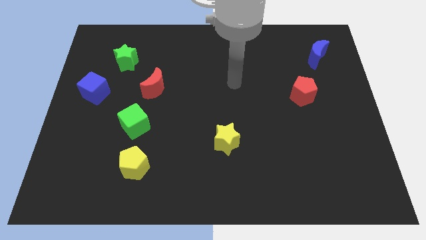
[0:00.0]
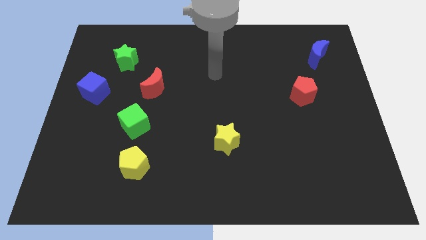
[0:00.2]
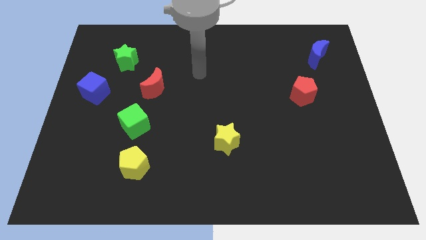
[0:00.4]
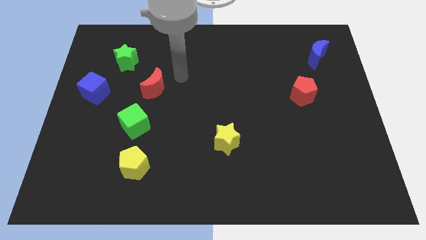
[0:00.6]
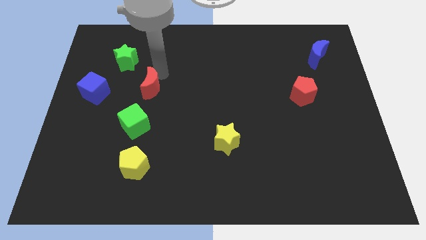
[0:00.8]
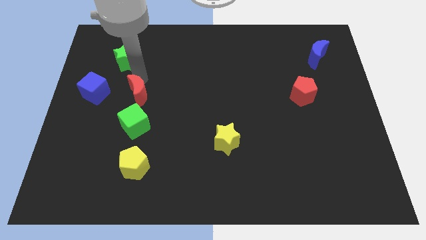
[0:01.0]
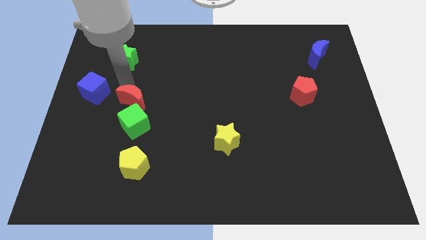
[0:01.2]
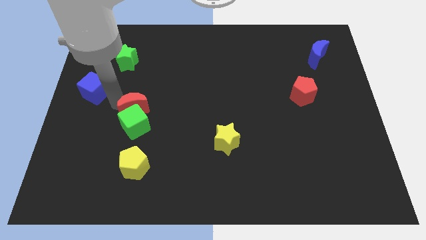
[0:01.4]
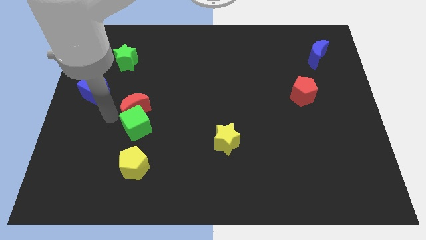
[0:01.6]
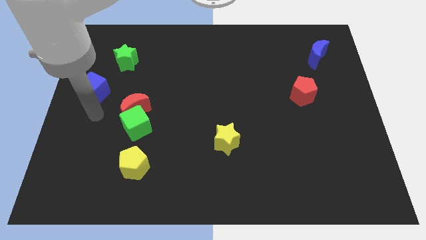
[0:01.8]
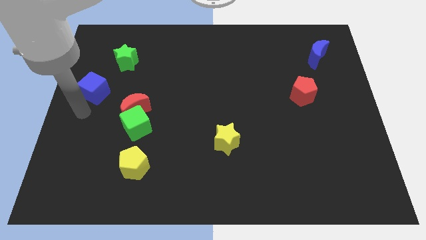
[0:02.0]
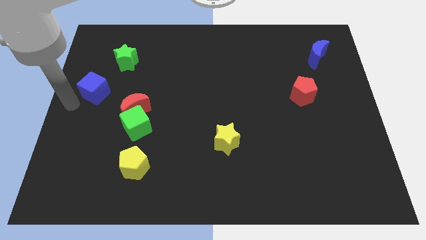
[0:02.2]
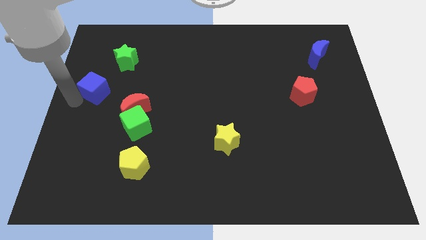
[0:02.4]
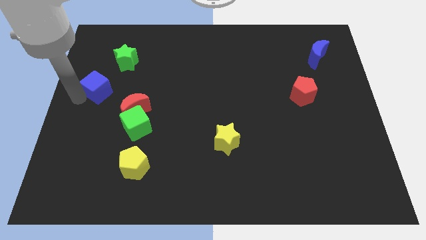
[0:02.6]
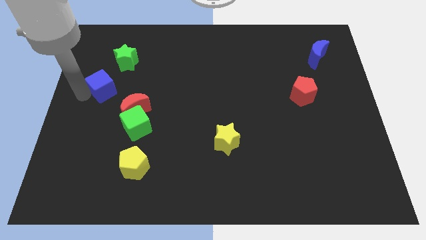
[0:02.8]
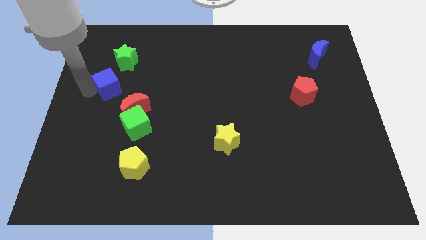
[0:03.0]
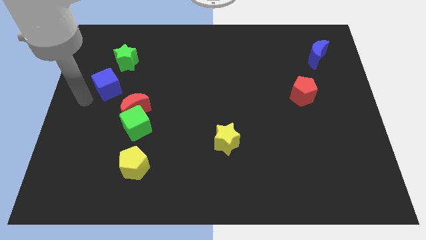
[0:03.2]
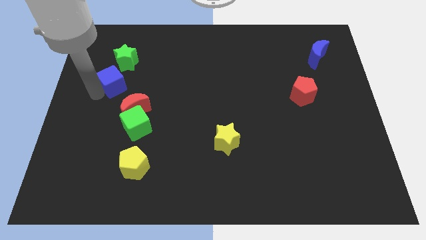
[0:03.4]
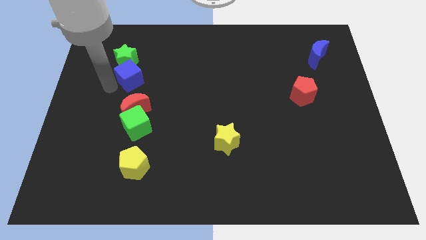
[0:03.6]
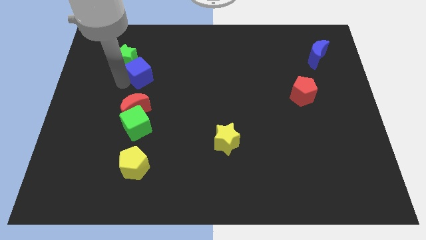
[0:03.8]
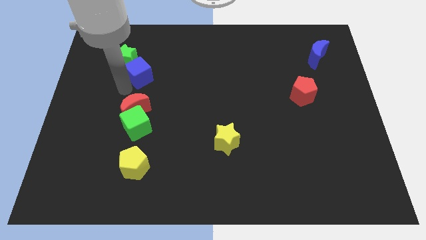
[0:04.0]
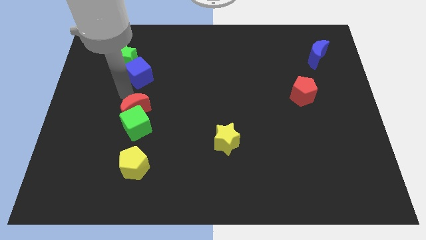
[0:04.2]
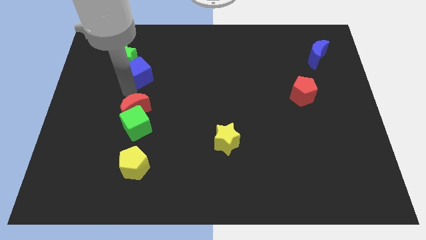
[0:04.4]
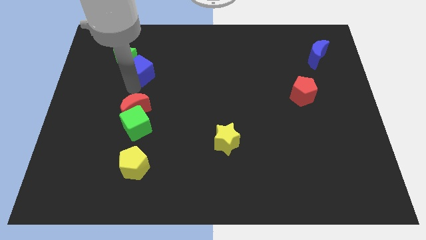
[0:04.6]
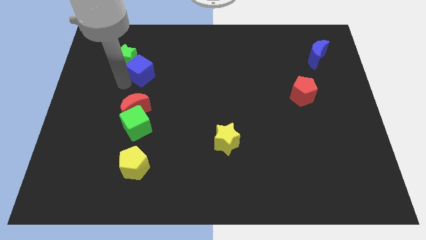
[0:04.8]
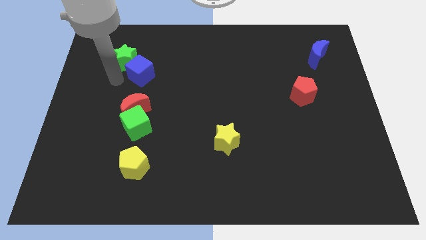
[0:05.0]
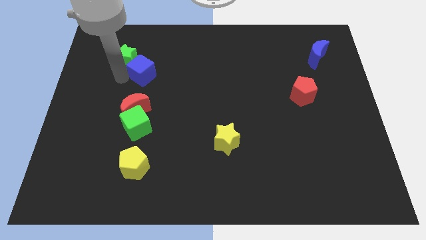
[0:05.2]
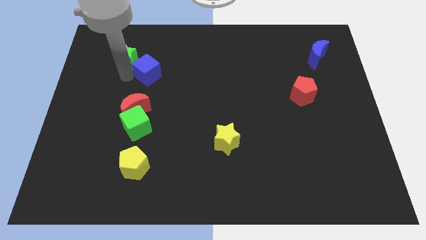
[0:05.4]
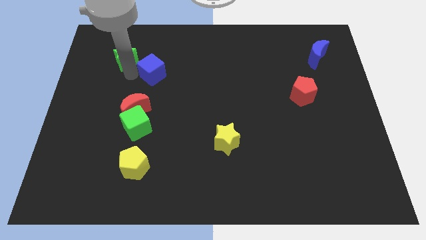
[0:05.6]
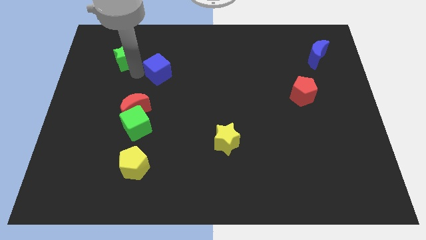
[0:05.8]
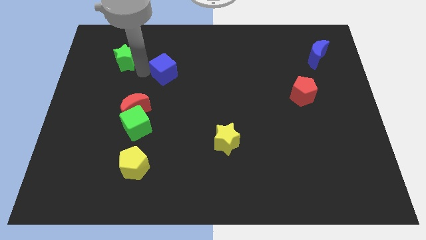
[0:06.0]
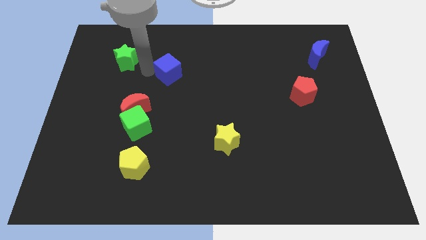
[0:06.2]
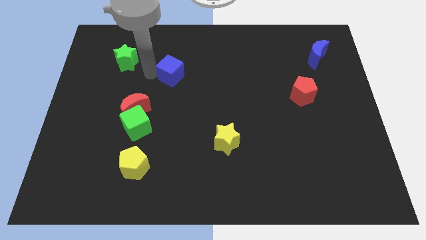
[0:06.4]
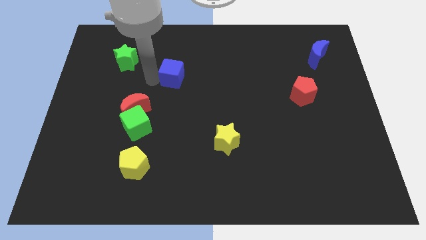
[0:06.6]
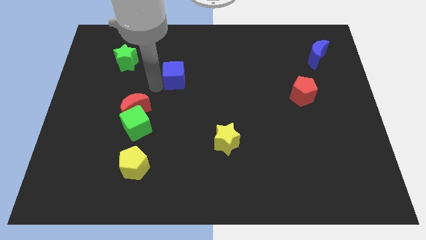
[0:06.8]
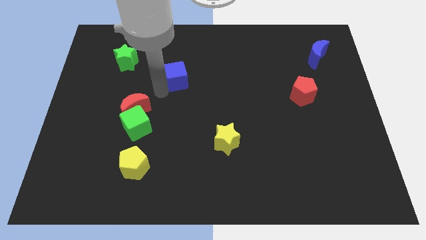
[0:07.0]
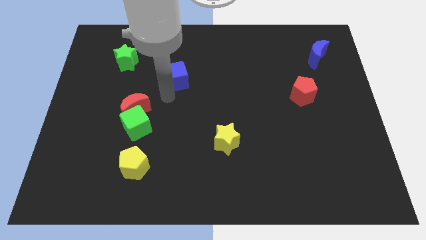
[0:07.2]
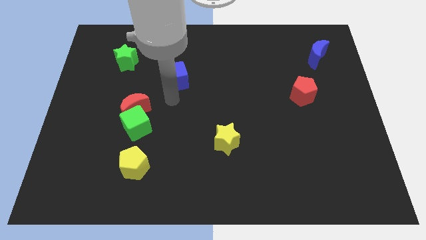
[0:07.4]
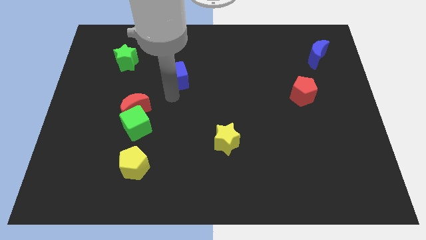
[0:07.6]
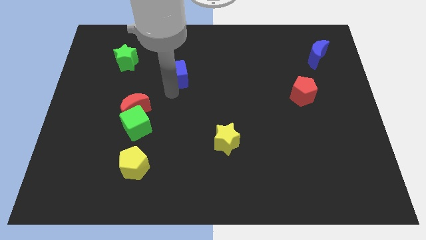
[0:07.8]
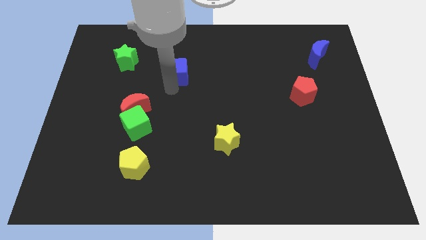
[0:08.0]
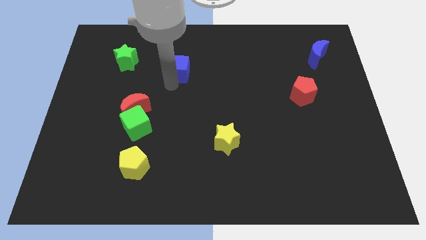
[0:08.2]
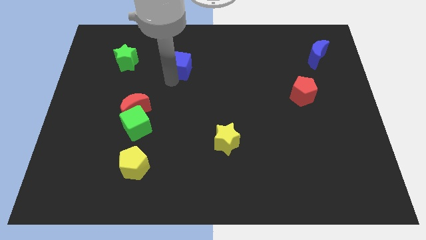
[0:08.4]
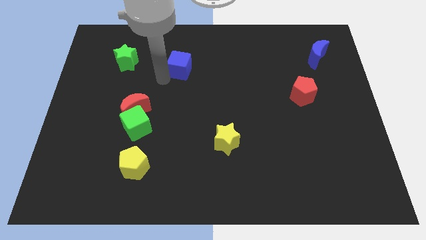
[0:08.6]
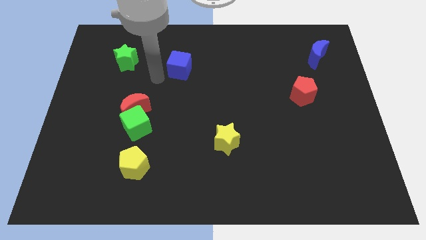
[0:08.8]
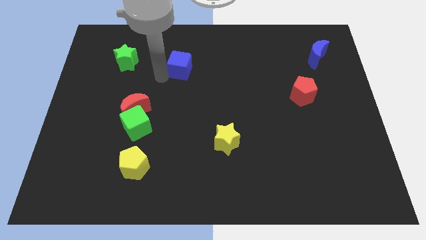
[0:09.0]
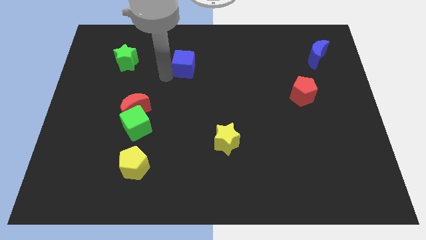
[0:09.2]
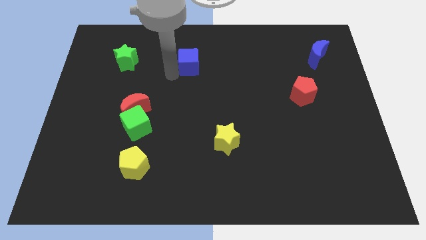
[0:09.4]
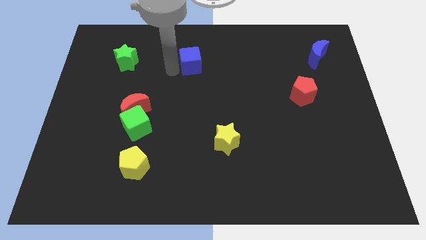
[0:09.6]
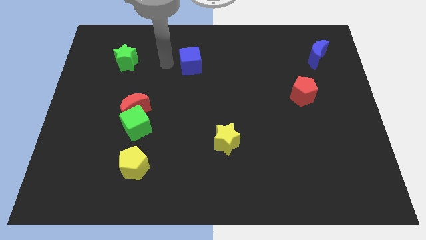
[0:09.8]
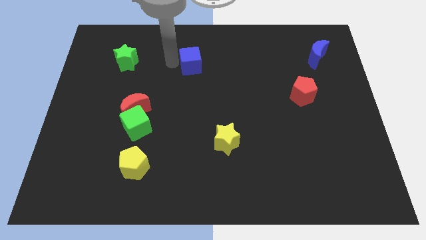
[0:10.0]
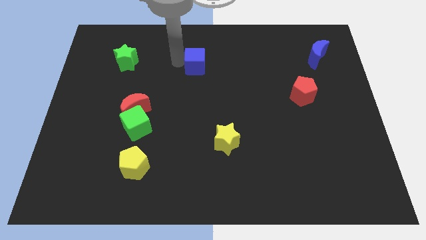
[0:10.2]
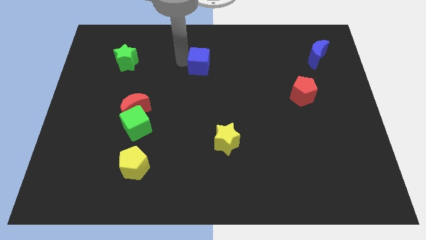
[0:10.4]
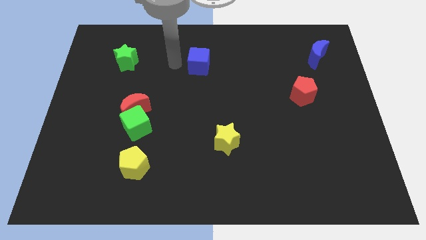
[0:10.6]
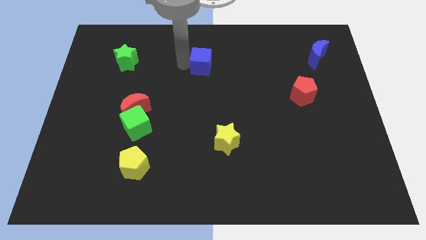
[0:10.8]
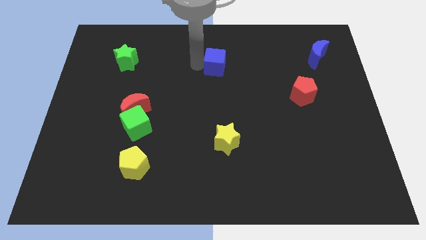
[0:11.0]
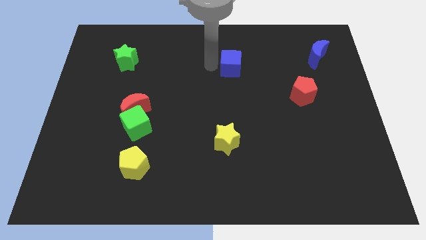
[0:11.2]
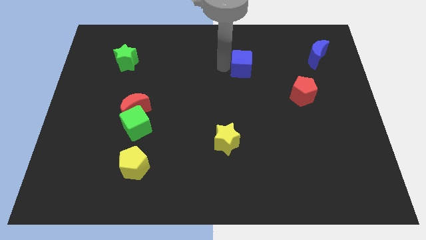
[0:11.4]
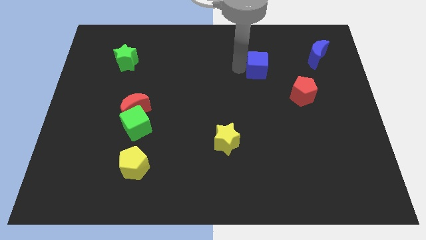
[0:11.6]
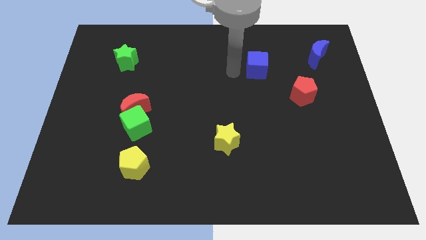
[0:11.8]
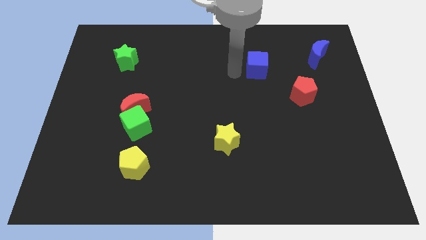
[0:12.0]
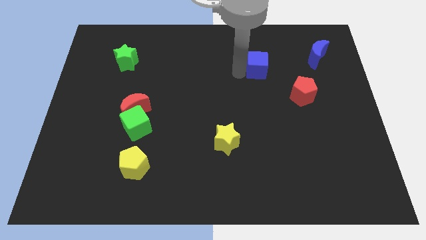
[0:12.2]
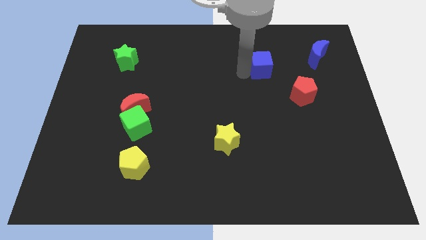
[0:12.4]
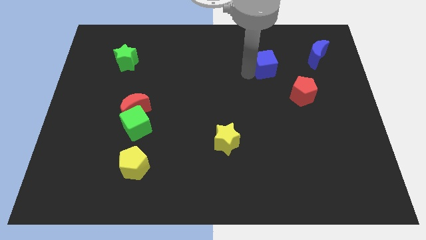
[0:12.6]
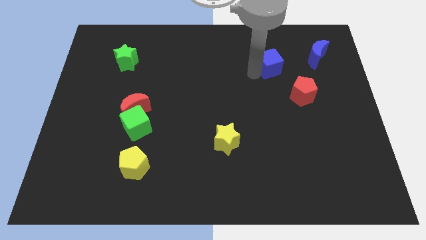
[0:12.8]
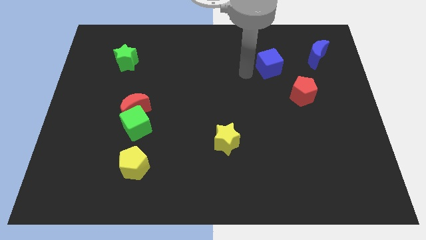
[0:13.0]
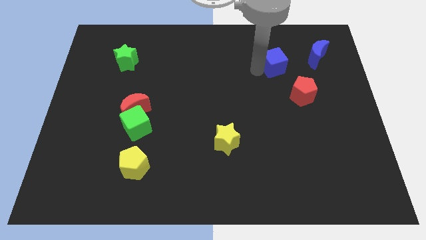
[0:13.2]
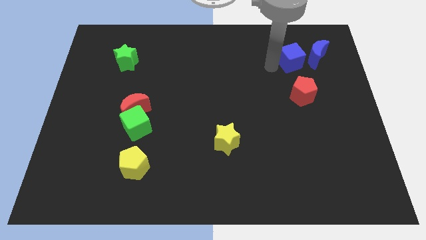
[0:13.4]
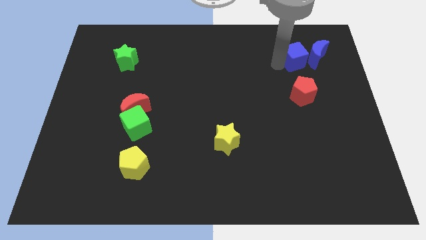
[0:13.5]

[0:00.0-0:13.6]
slide the blue cube towards the blue moon
